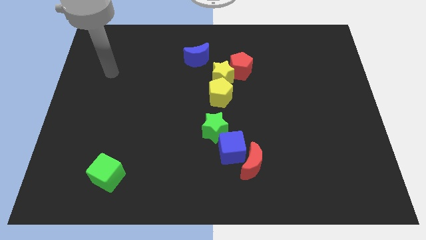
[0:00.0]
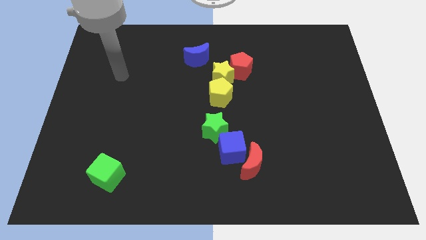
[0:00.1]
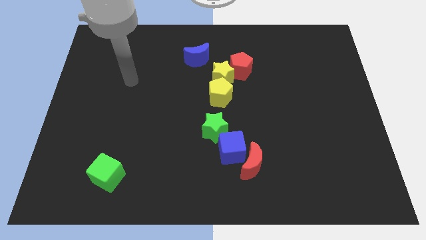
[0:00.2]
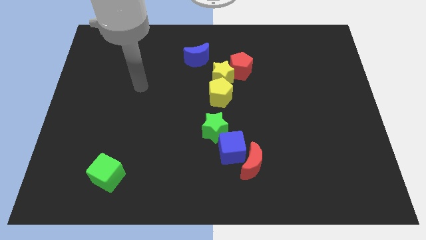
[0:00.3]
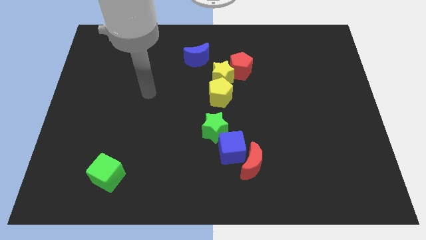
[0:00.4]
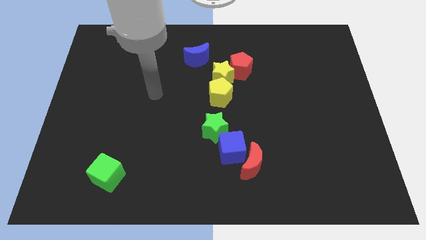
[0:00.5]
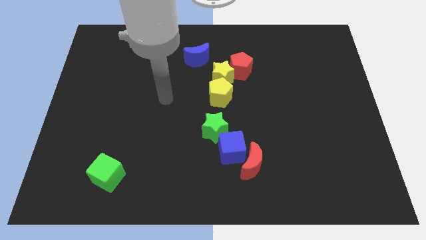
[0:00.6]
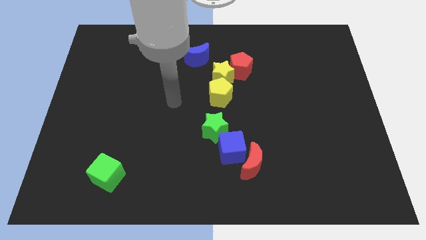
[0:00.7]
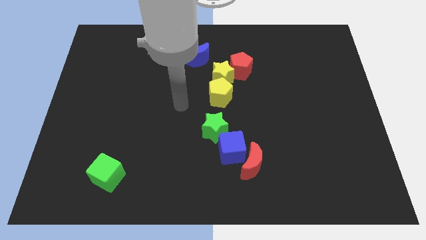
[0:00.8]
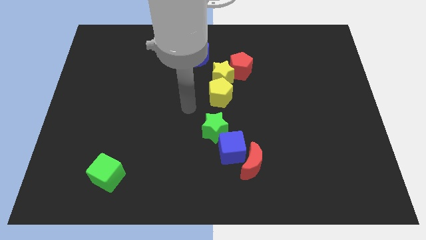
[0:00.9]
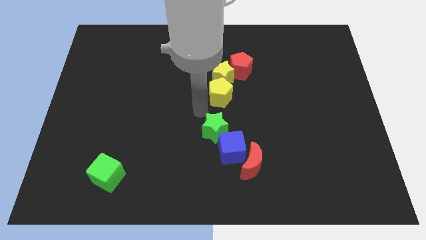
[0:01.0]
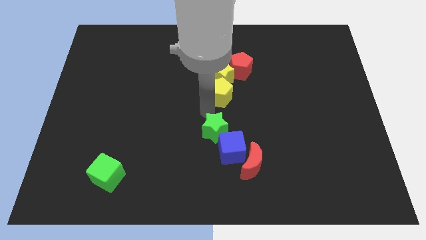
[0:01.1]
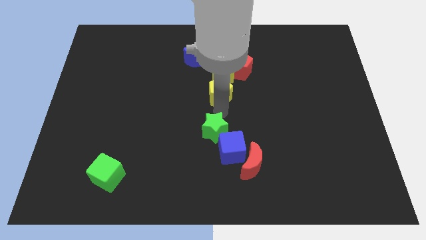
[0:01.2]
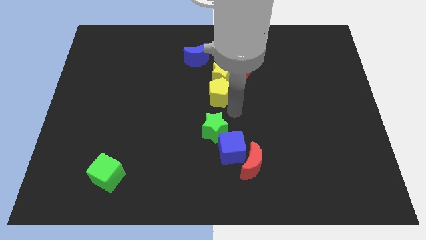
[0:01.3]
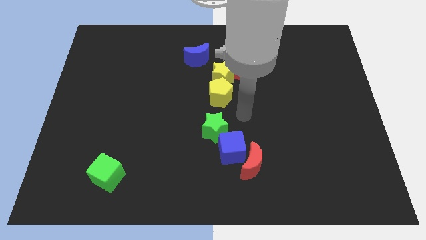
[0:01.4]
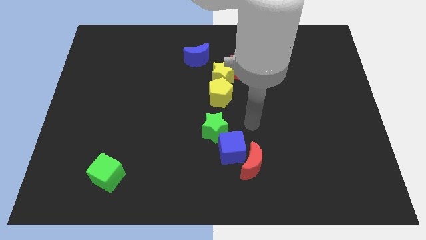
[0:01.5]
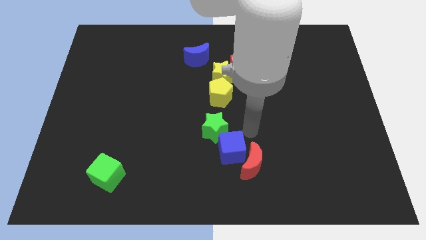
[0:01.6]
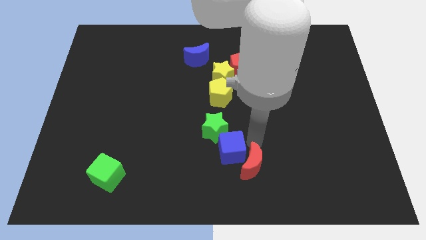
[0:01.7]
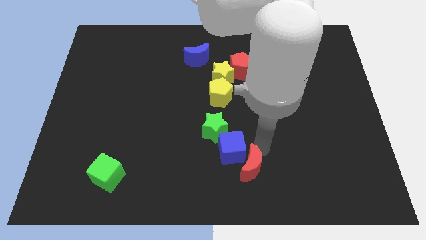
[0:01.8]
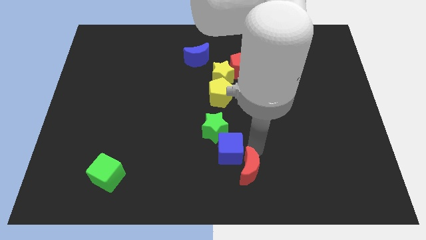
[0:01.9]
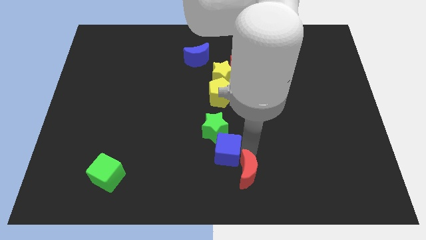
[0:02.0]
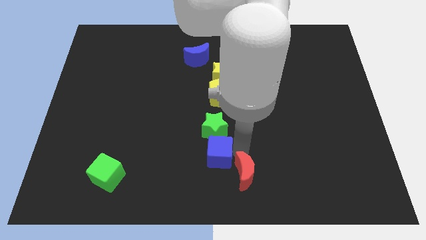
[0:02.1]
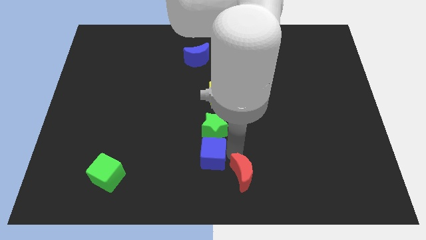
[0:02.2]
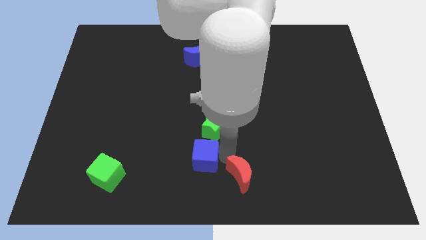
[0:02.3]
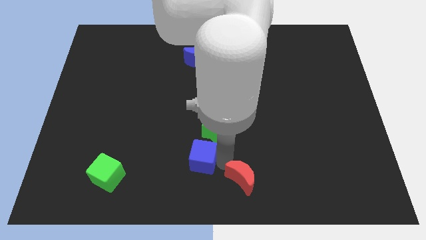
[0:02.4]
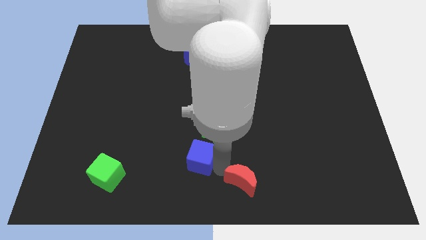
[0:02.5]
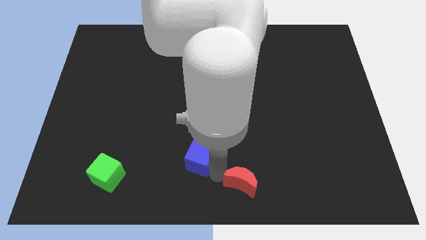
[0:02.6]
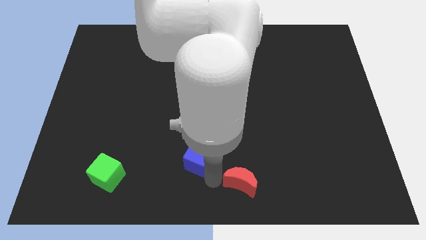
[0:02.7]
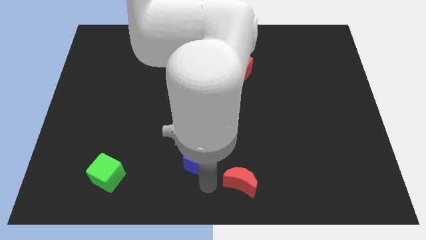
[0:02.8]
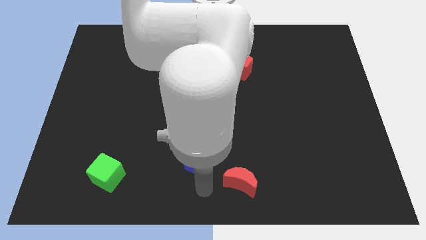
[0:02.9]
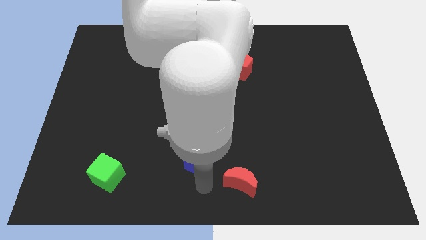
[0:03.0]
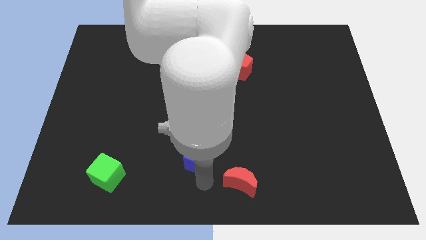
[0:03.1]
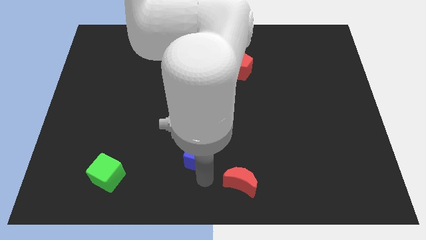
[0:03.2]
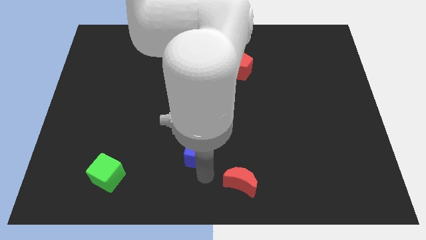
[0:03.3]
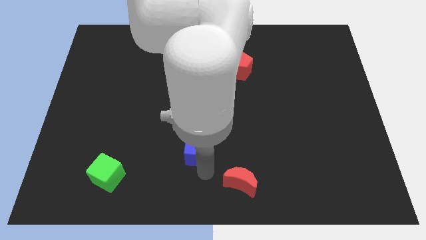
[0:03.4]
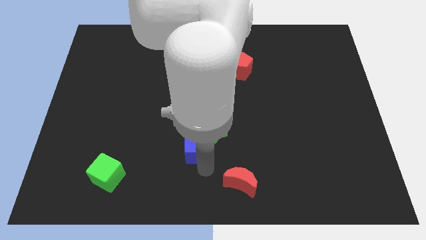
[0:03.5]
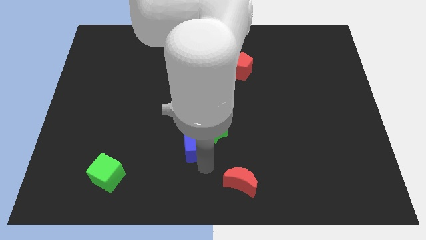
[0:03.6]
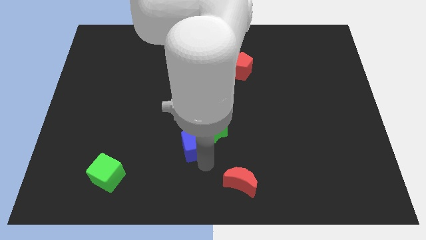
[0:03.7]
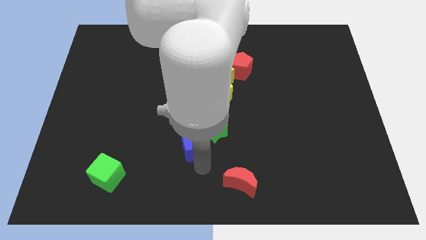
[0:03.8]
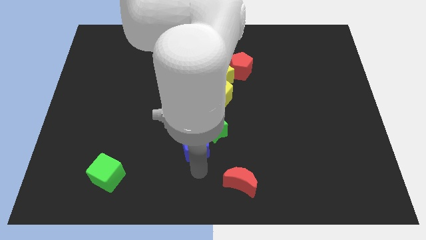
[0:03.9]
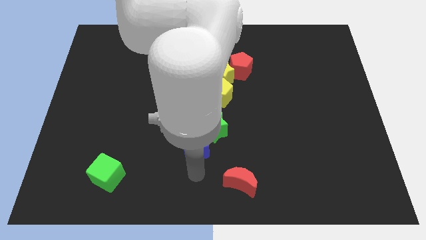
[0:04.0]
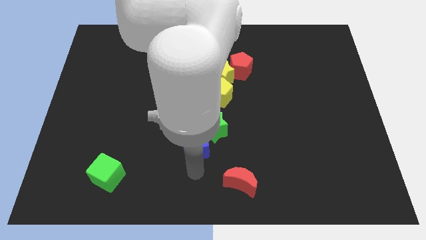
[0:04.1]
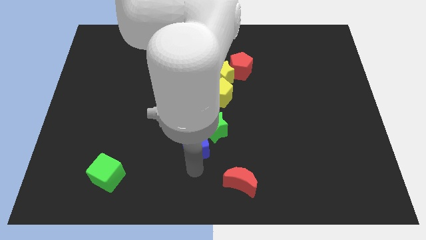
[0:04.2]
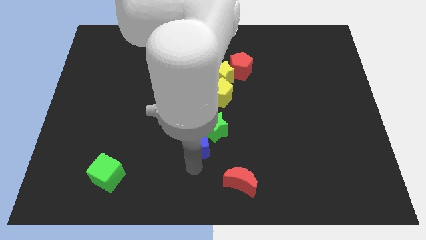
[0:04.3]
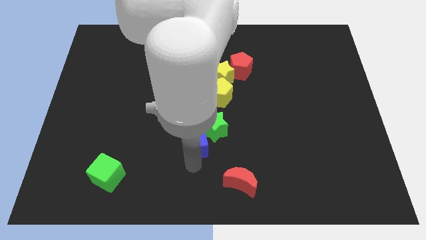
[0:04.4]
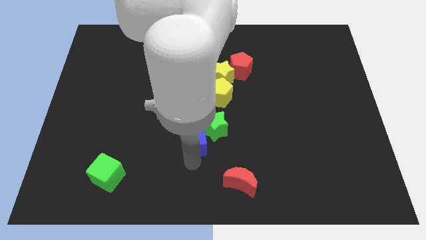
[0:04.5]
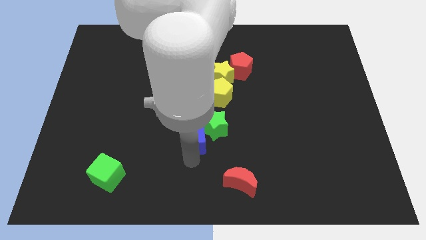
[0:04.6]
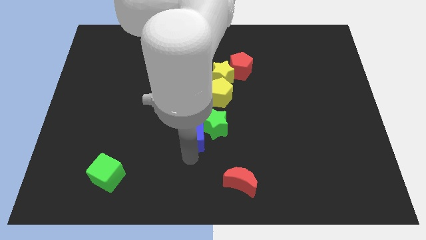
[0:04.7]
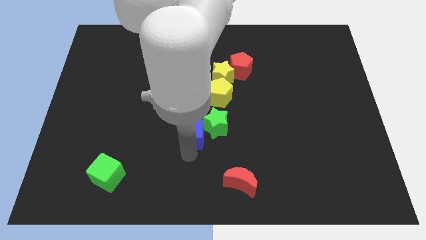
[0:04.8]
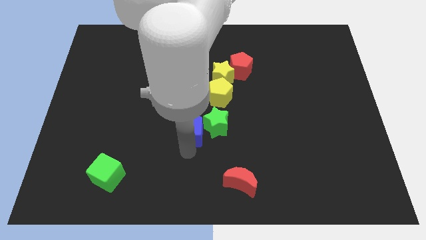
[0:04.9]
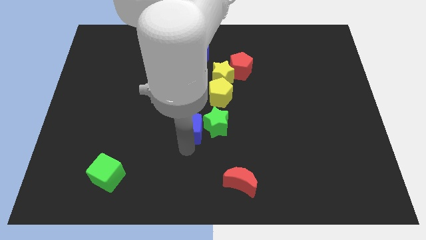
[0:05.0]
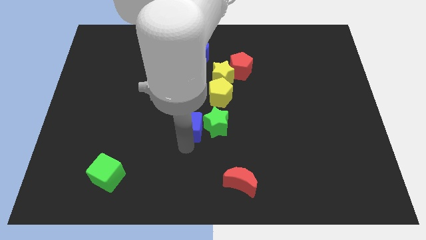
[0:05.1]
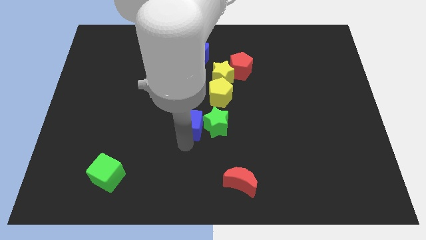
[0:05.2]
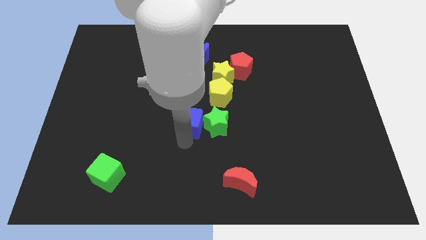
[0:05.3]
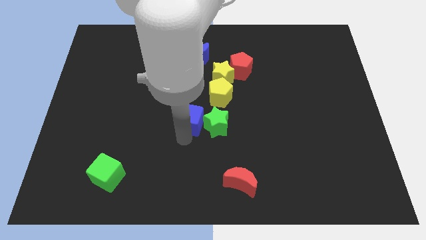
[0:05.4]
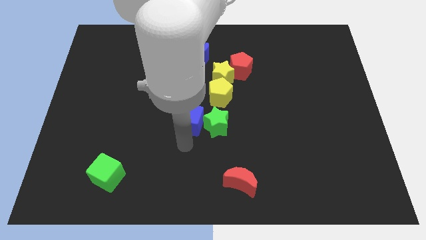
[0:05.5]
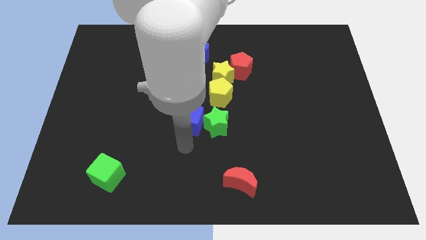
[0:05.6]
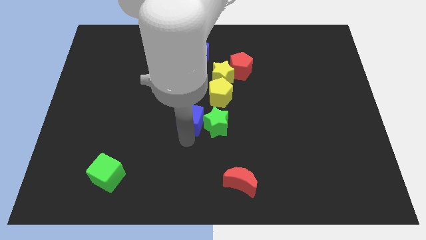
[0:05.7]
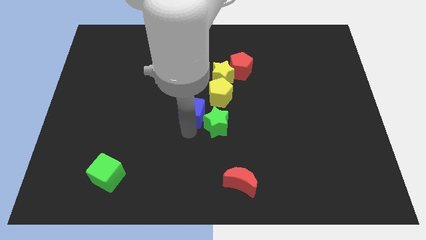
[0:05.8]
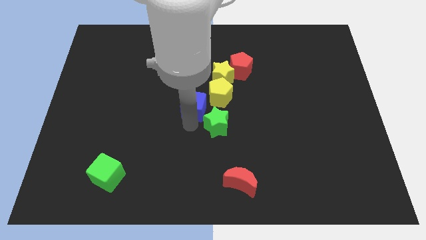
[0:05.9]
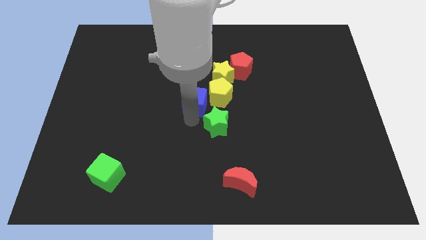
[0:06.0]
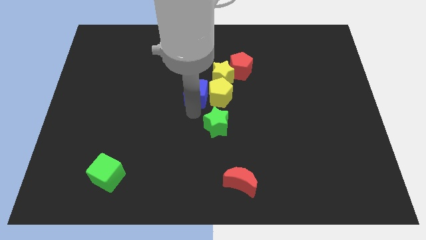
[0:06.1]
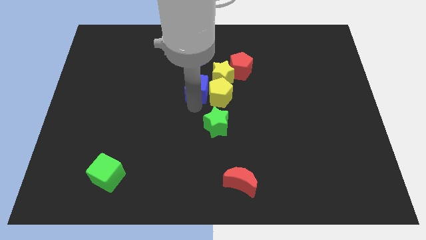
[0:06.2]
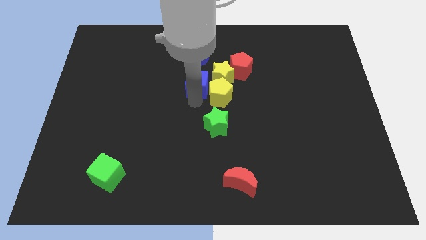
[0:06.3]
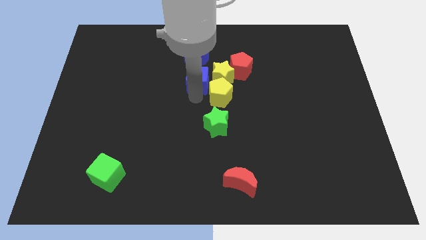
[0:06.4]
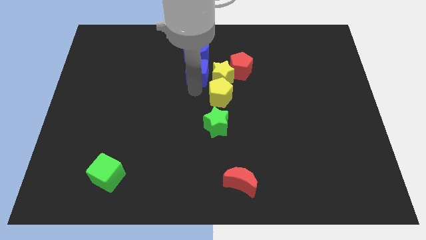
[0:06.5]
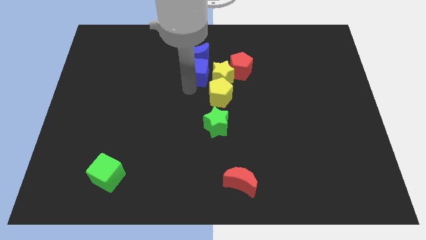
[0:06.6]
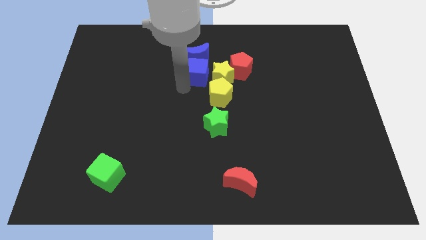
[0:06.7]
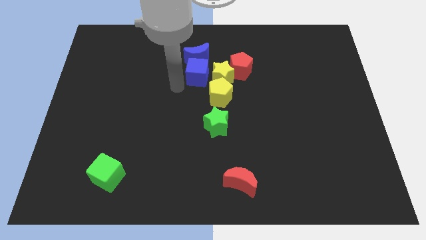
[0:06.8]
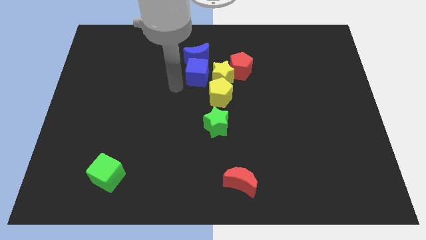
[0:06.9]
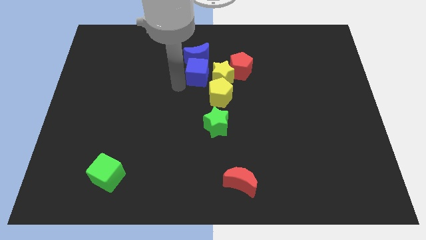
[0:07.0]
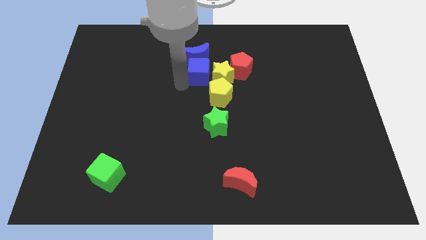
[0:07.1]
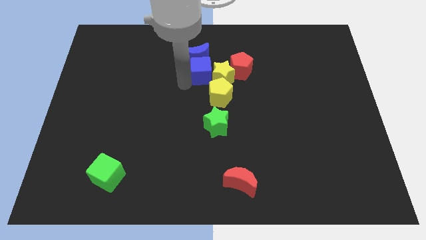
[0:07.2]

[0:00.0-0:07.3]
push the blue cube to the top side of the yellow pentagon
